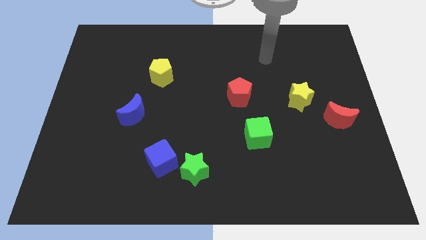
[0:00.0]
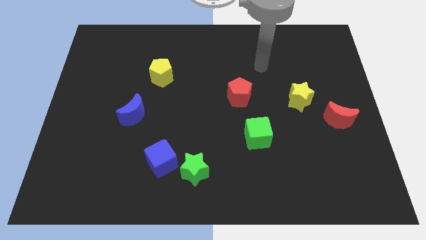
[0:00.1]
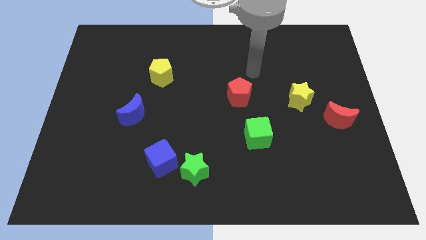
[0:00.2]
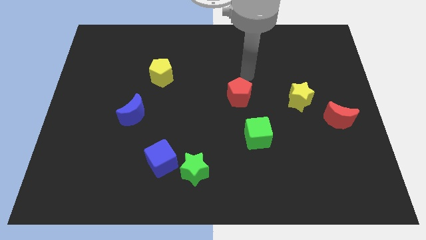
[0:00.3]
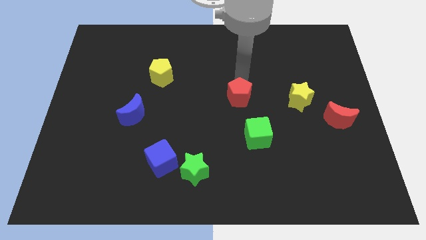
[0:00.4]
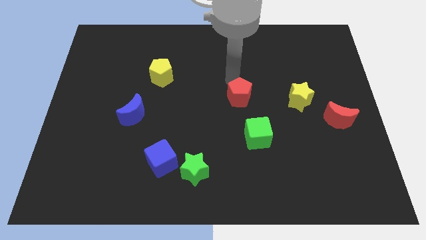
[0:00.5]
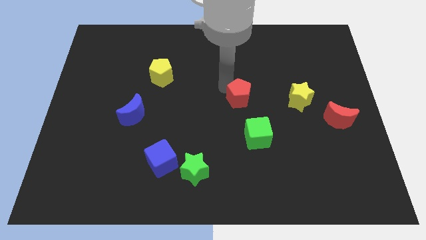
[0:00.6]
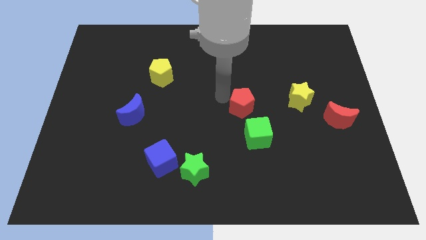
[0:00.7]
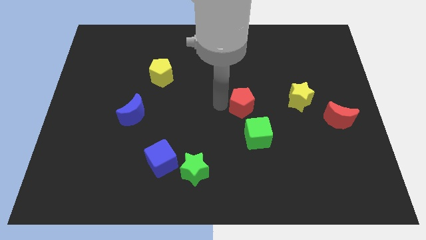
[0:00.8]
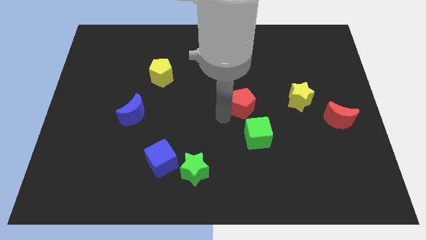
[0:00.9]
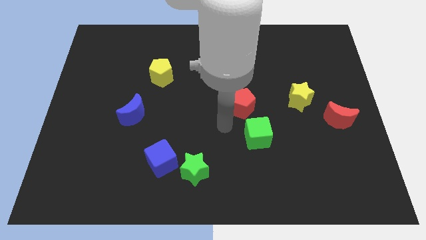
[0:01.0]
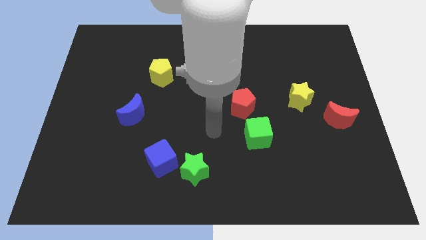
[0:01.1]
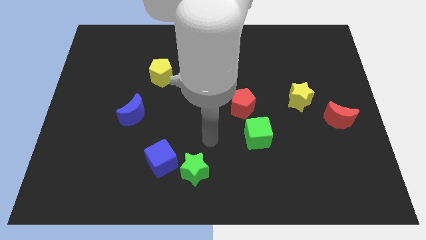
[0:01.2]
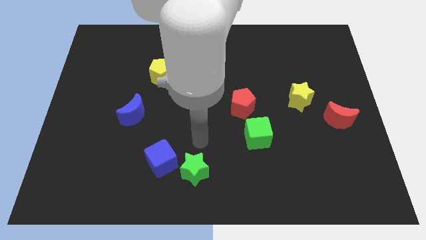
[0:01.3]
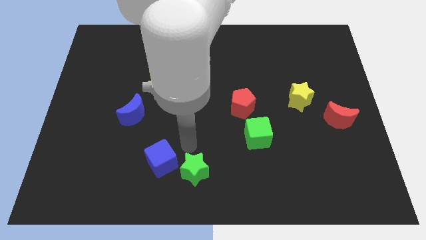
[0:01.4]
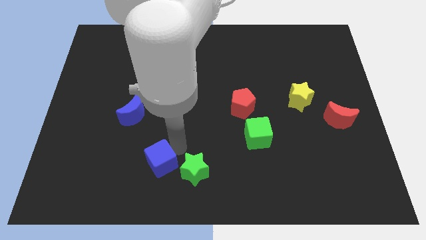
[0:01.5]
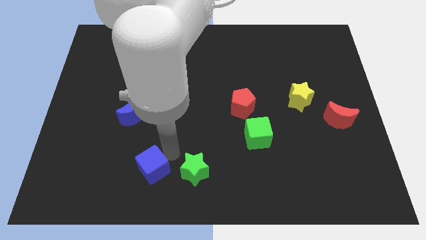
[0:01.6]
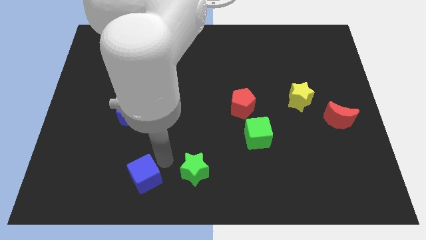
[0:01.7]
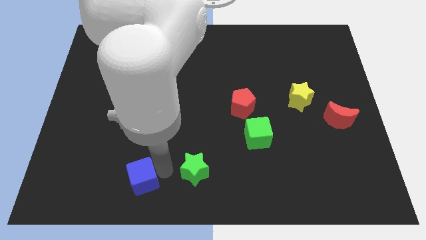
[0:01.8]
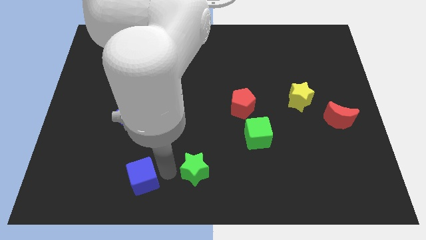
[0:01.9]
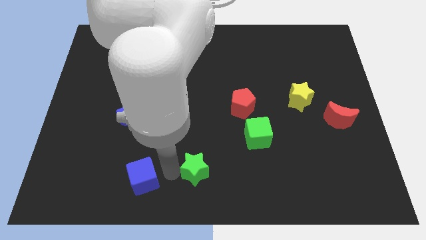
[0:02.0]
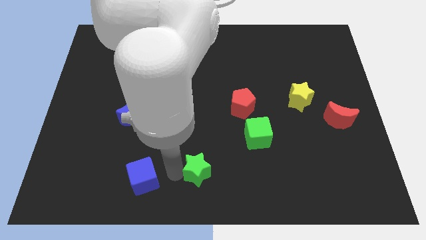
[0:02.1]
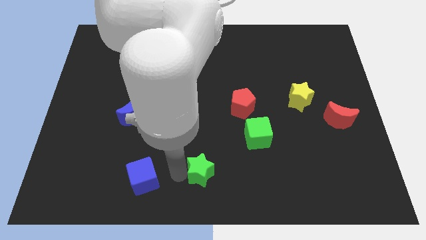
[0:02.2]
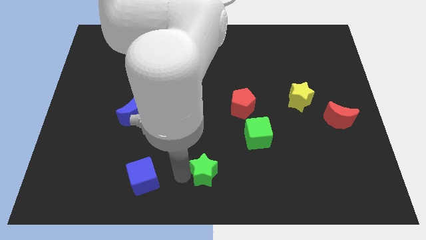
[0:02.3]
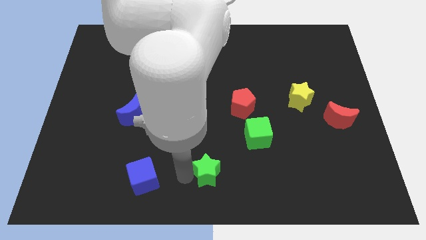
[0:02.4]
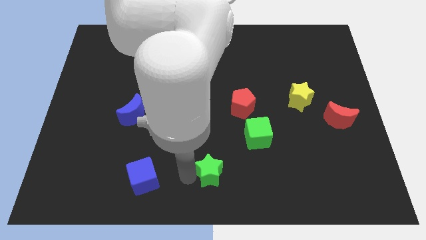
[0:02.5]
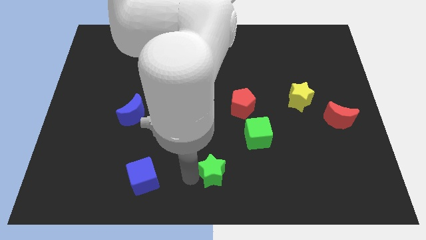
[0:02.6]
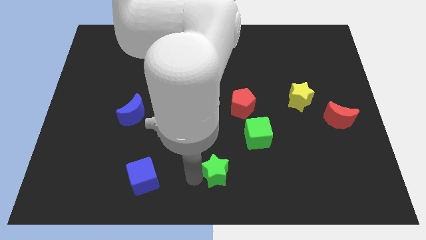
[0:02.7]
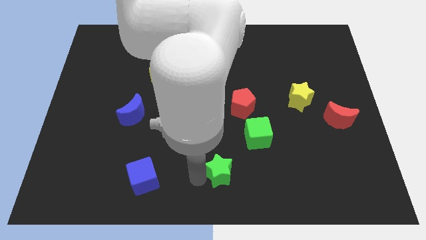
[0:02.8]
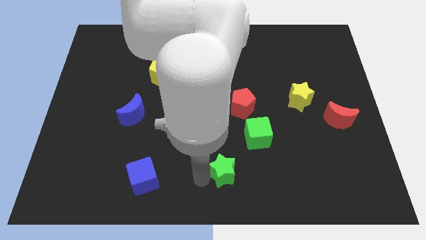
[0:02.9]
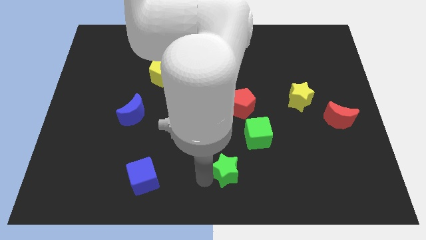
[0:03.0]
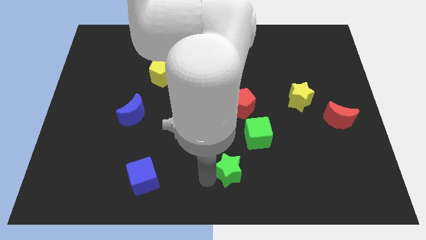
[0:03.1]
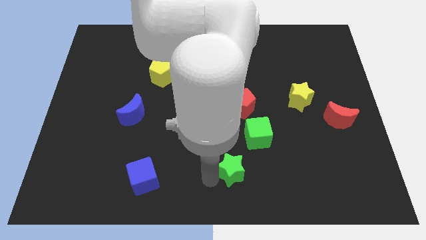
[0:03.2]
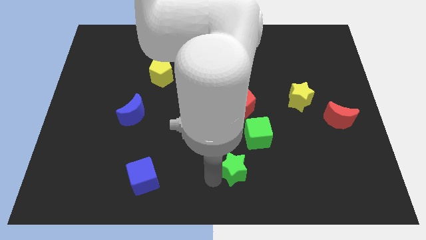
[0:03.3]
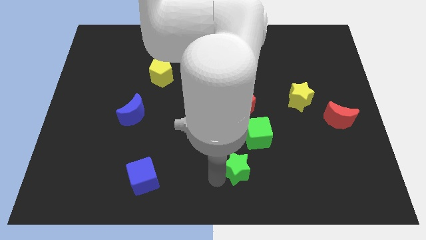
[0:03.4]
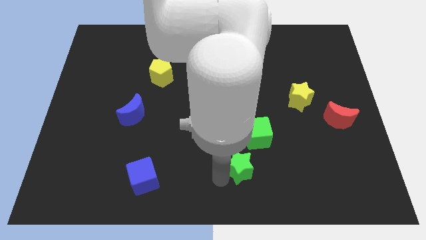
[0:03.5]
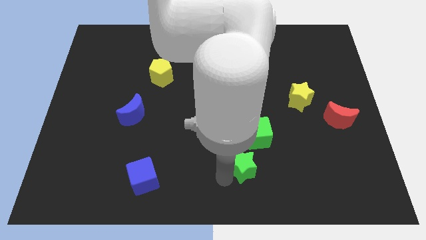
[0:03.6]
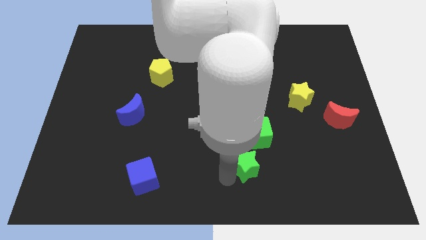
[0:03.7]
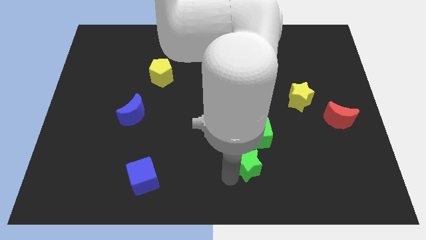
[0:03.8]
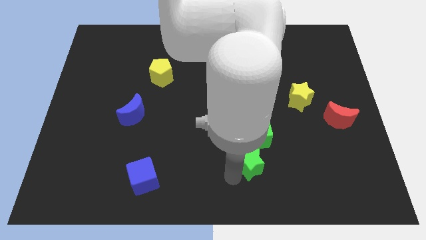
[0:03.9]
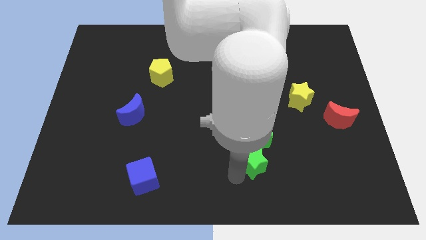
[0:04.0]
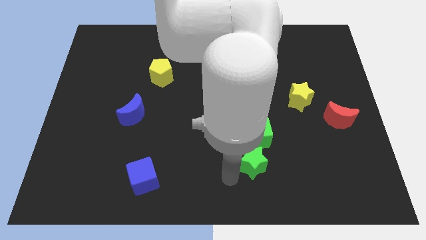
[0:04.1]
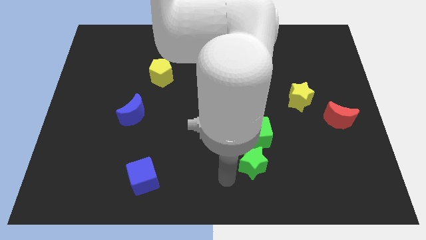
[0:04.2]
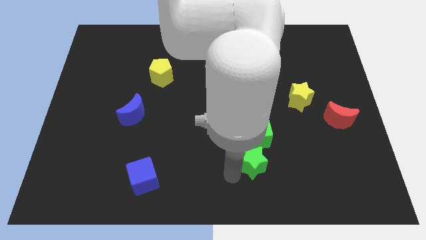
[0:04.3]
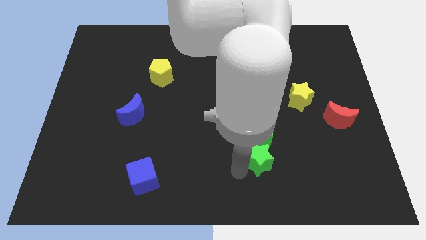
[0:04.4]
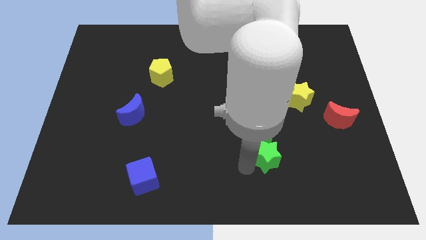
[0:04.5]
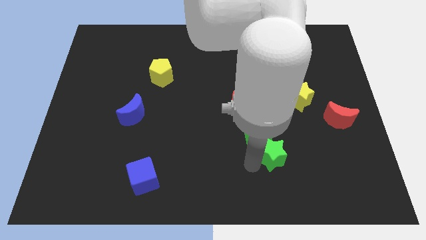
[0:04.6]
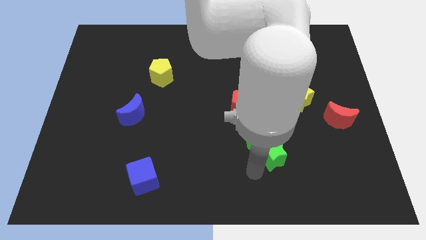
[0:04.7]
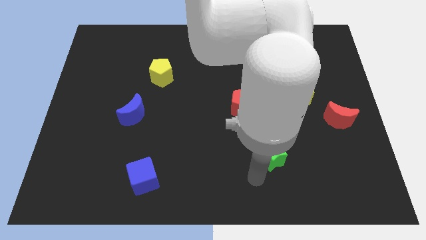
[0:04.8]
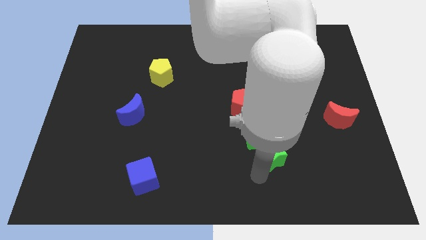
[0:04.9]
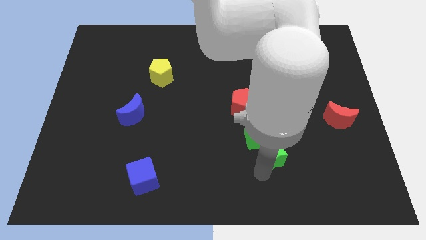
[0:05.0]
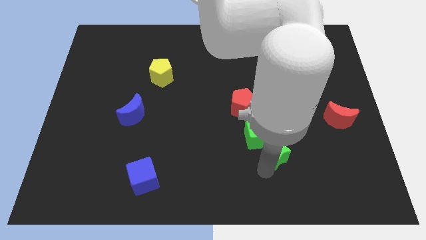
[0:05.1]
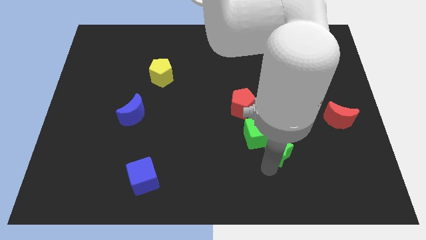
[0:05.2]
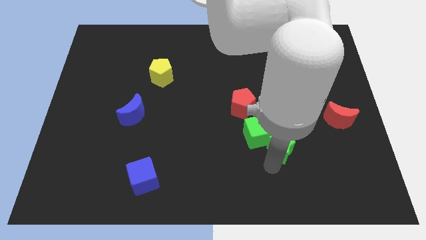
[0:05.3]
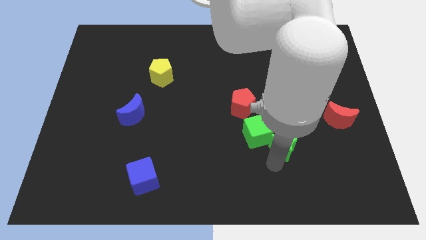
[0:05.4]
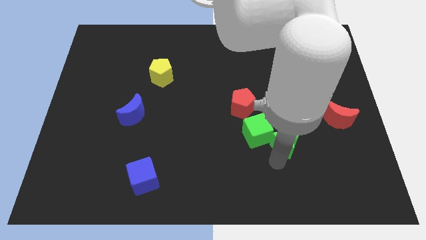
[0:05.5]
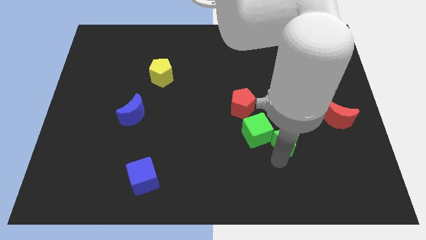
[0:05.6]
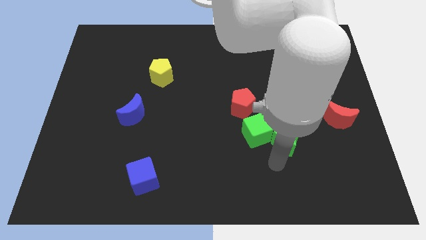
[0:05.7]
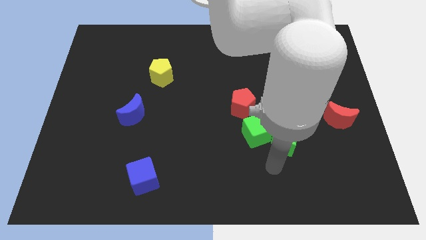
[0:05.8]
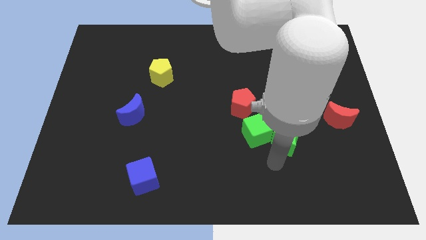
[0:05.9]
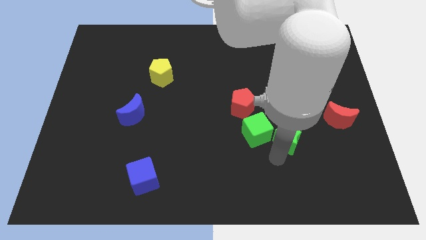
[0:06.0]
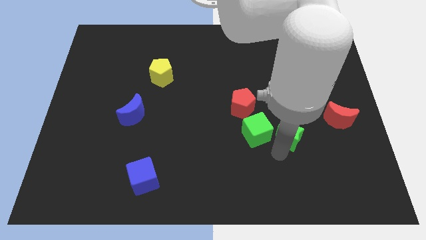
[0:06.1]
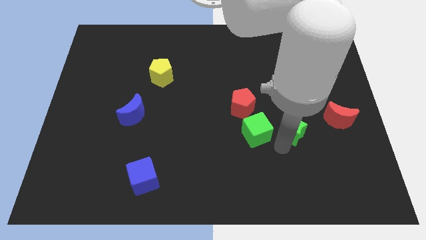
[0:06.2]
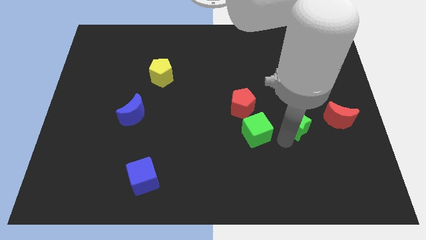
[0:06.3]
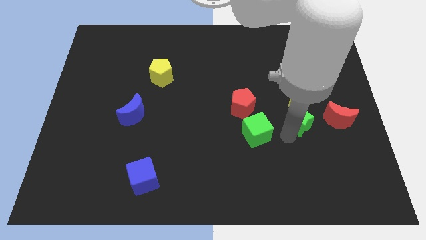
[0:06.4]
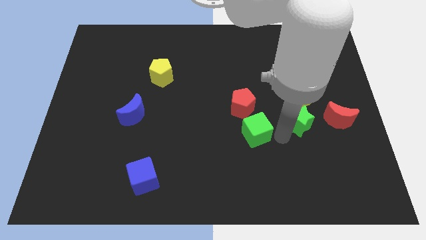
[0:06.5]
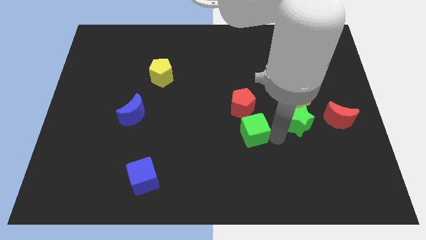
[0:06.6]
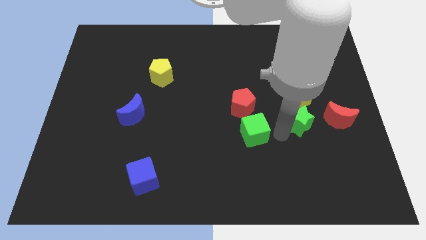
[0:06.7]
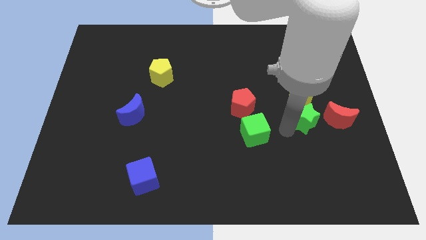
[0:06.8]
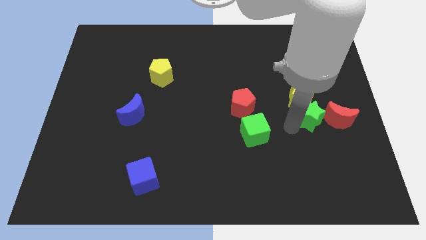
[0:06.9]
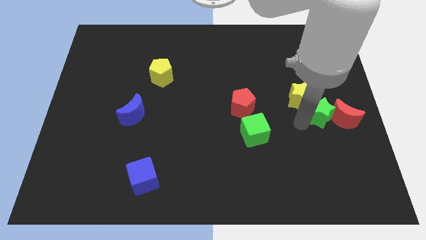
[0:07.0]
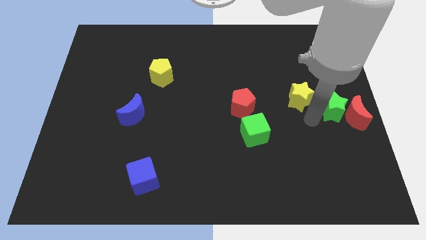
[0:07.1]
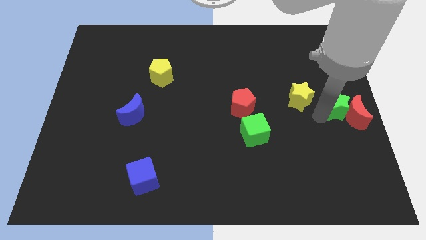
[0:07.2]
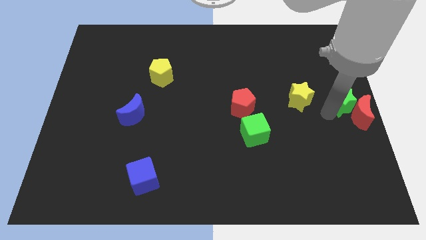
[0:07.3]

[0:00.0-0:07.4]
move the green star above the red moon
